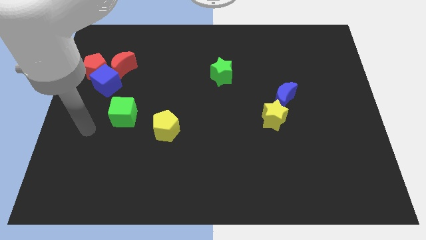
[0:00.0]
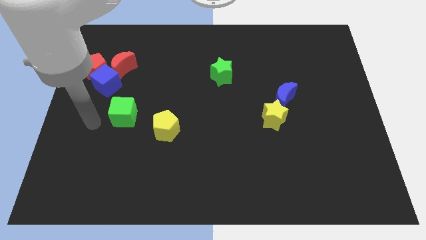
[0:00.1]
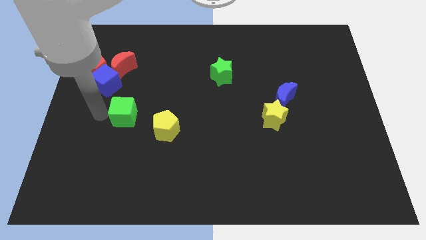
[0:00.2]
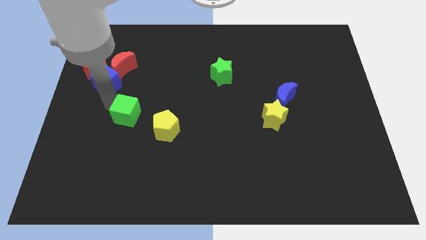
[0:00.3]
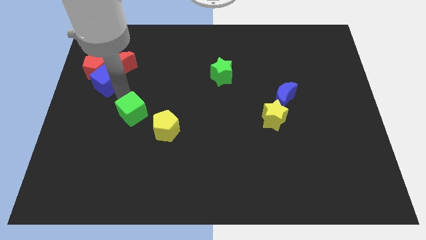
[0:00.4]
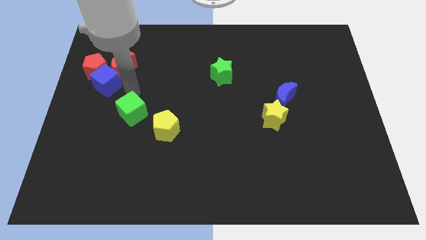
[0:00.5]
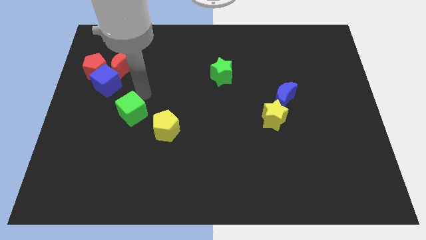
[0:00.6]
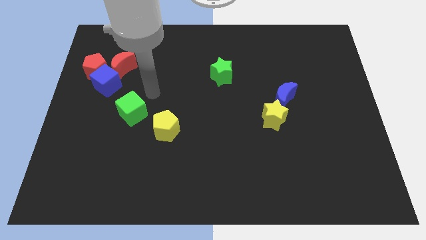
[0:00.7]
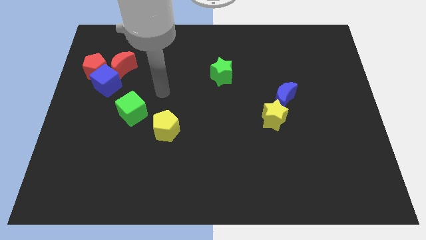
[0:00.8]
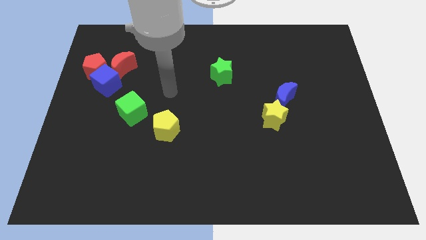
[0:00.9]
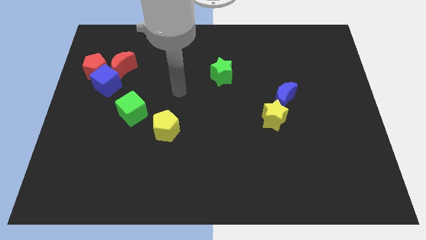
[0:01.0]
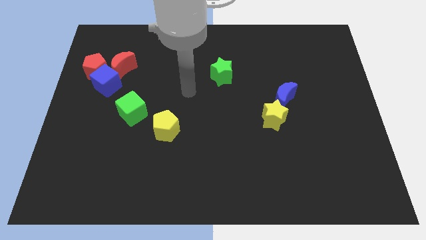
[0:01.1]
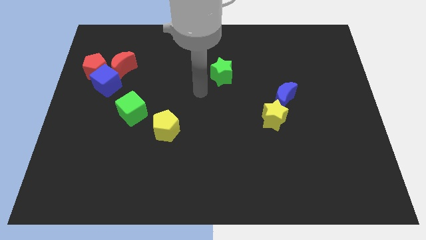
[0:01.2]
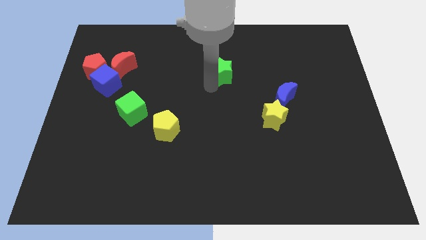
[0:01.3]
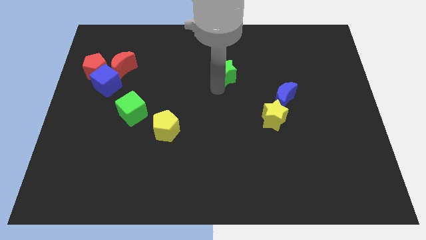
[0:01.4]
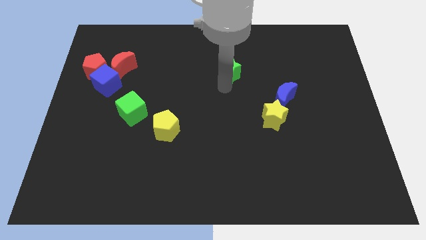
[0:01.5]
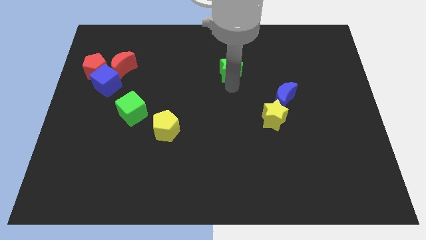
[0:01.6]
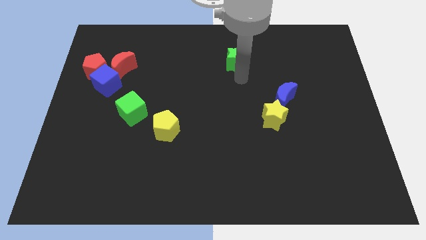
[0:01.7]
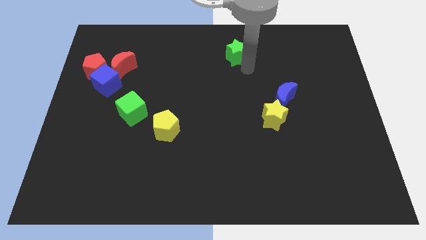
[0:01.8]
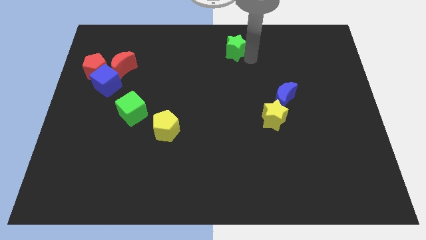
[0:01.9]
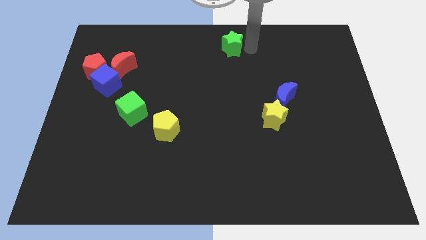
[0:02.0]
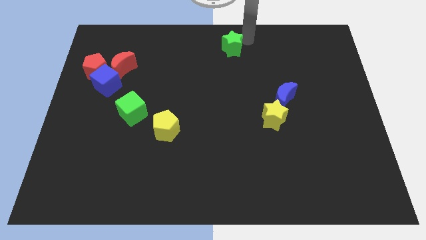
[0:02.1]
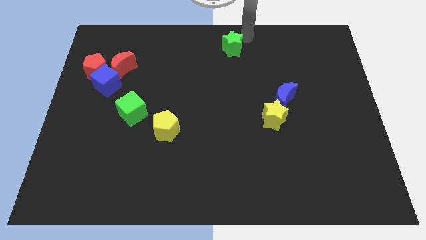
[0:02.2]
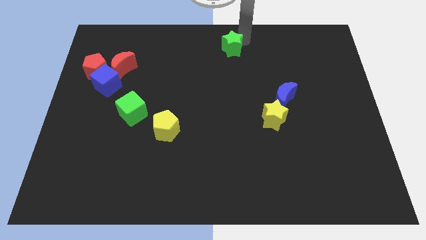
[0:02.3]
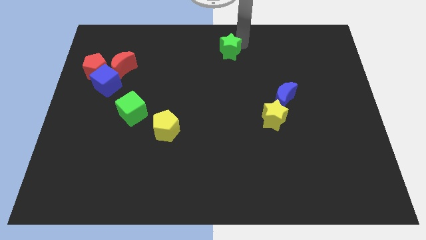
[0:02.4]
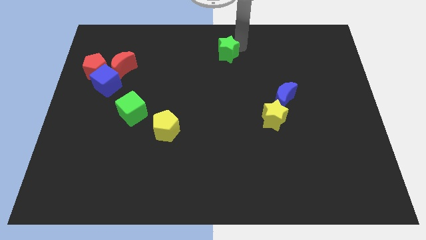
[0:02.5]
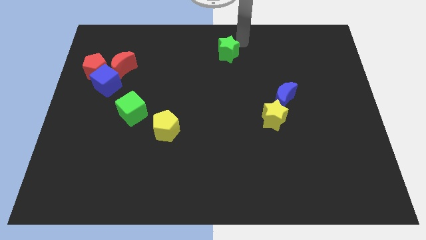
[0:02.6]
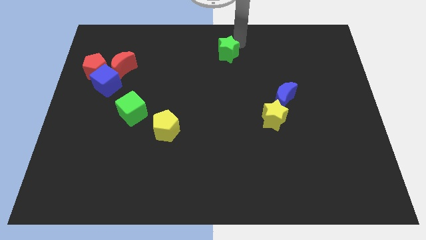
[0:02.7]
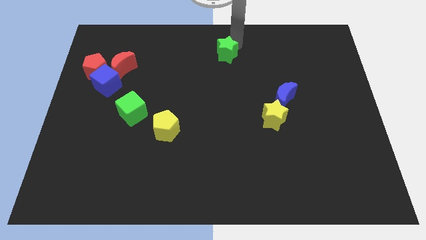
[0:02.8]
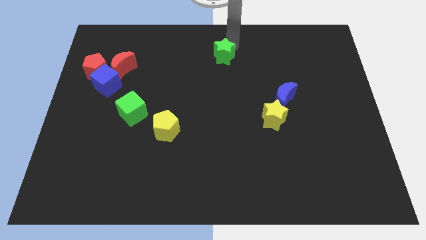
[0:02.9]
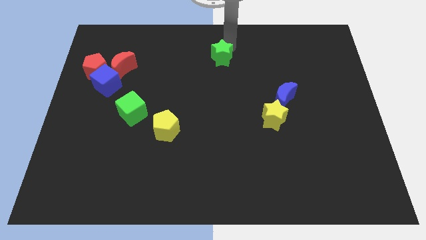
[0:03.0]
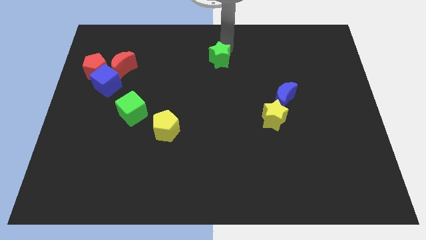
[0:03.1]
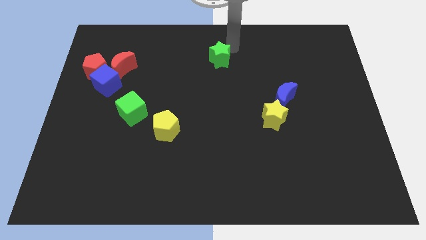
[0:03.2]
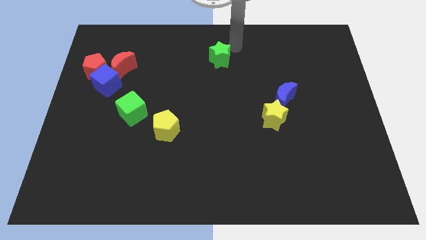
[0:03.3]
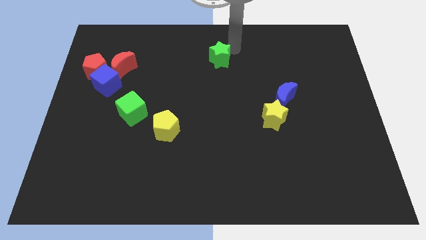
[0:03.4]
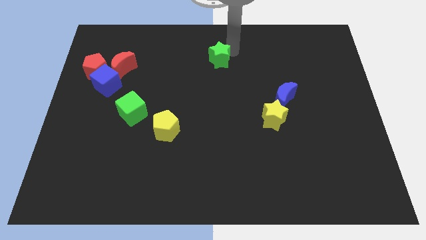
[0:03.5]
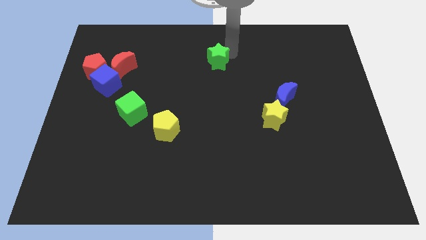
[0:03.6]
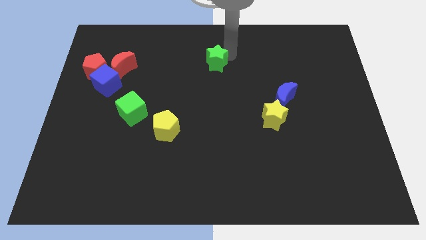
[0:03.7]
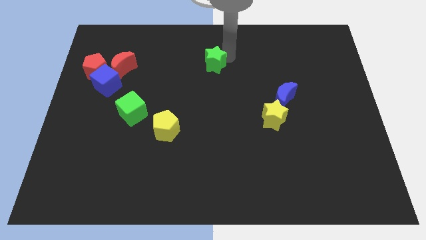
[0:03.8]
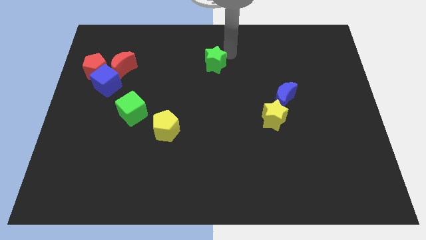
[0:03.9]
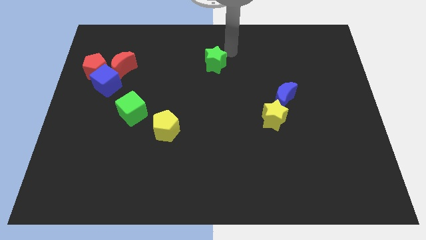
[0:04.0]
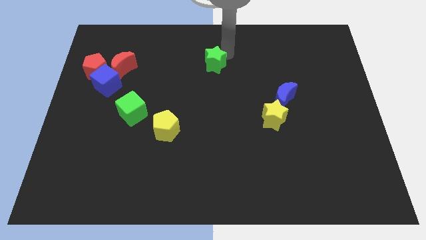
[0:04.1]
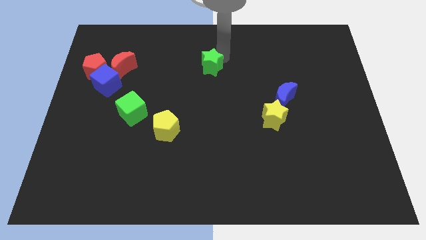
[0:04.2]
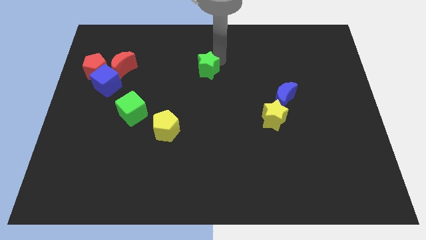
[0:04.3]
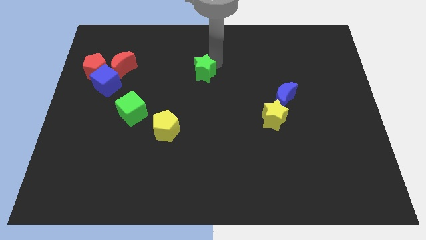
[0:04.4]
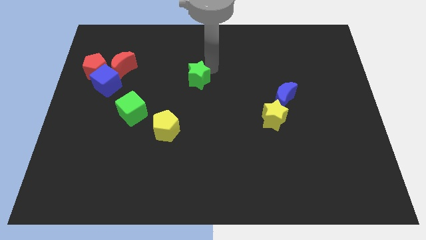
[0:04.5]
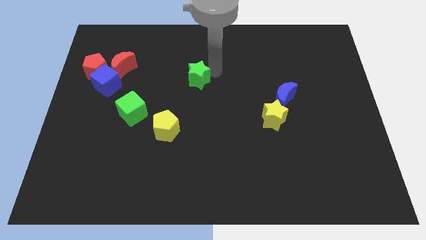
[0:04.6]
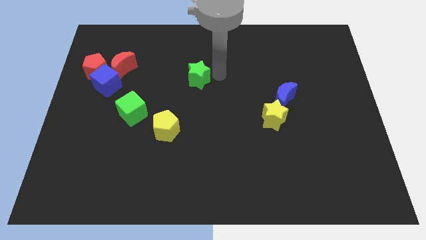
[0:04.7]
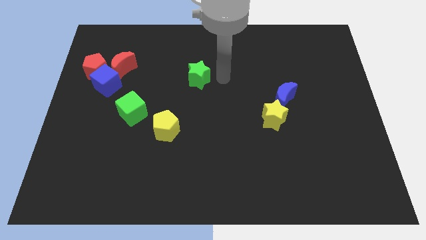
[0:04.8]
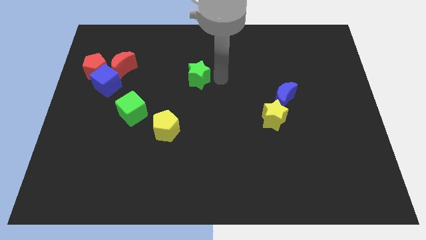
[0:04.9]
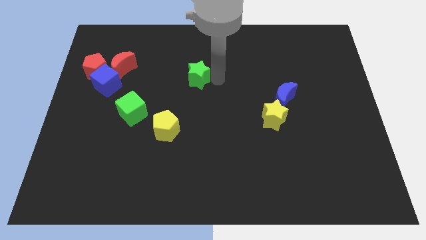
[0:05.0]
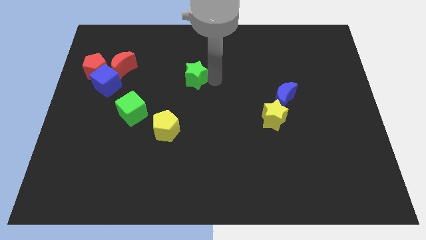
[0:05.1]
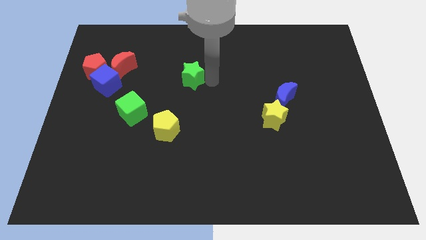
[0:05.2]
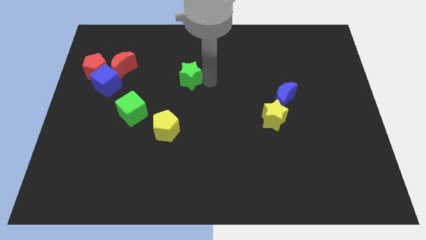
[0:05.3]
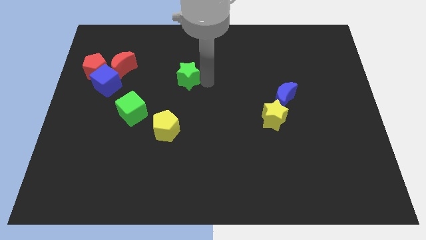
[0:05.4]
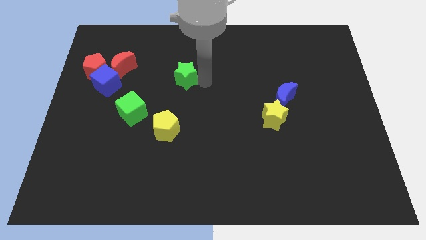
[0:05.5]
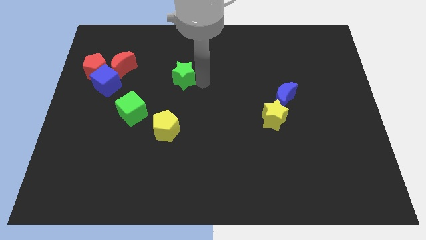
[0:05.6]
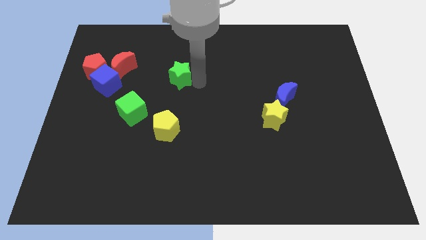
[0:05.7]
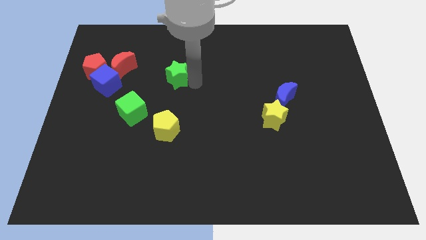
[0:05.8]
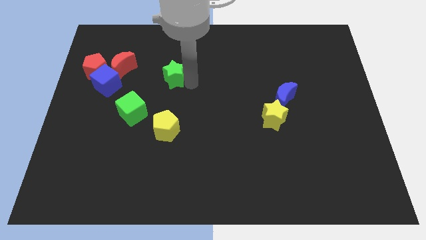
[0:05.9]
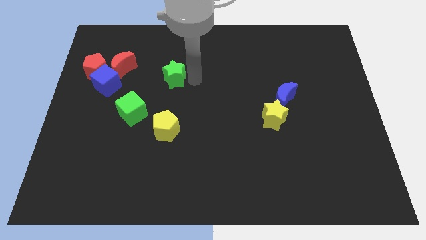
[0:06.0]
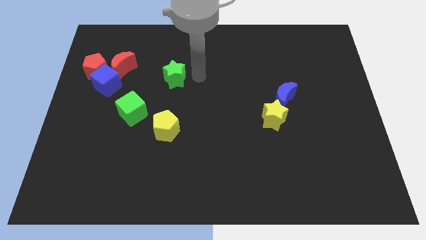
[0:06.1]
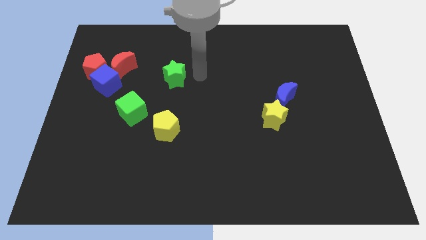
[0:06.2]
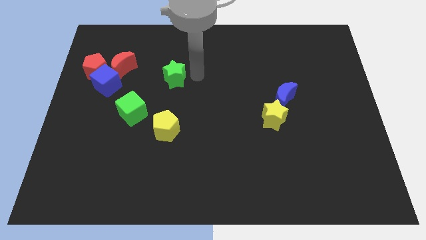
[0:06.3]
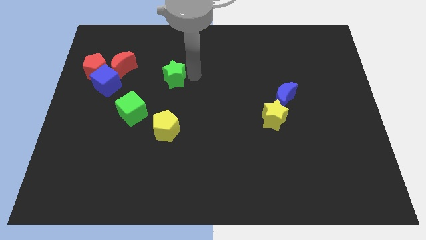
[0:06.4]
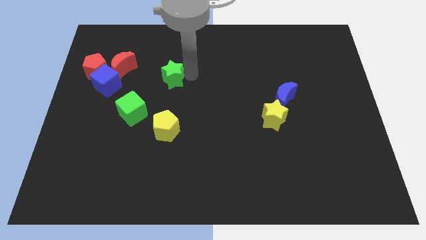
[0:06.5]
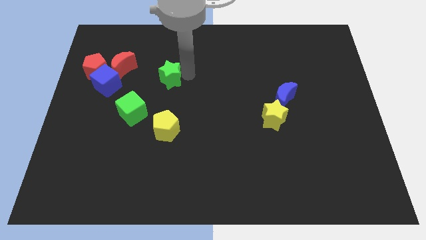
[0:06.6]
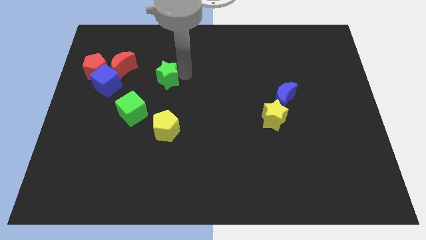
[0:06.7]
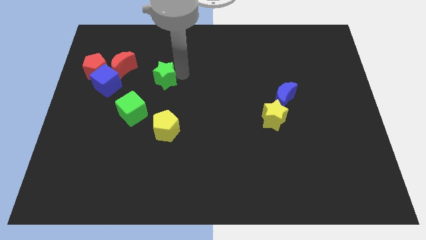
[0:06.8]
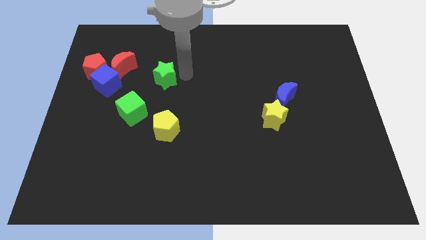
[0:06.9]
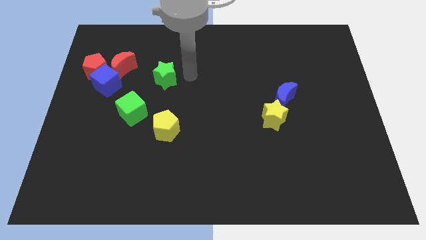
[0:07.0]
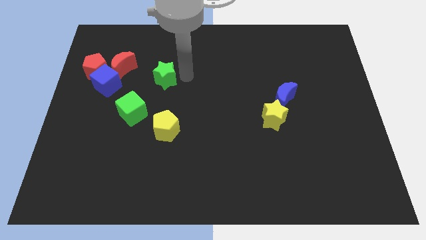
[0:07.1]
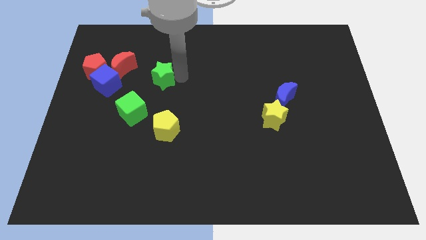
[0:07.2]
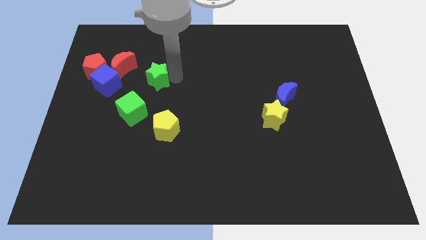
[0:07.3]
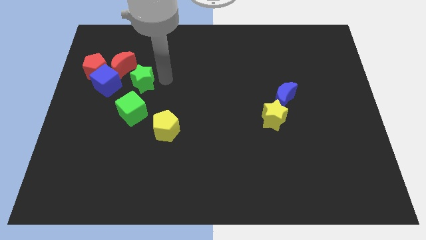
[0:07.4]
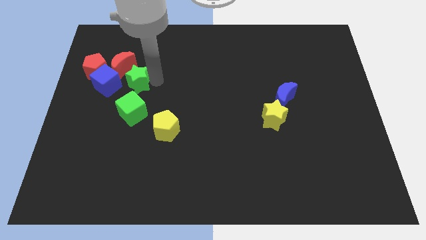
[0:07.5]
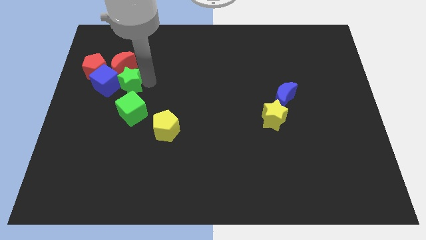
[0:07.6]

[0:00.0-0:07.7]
push the green star close to the blue cube
